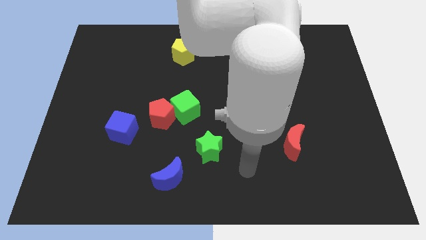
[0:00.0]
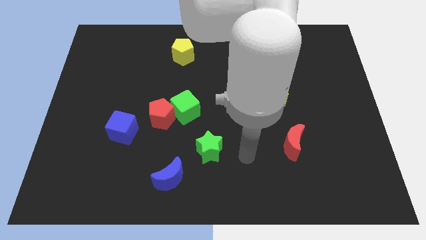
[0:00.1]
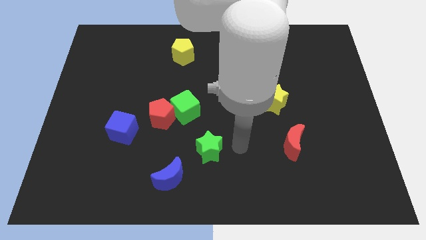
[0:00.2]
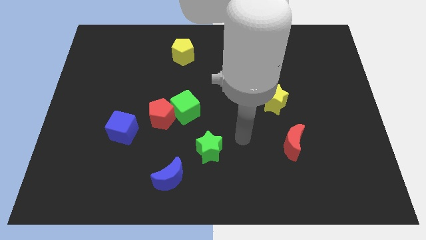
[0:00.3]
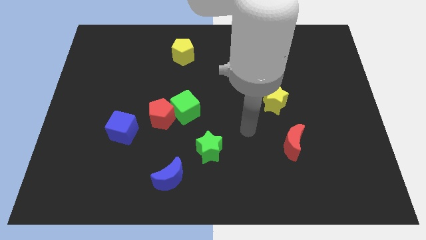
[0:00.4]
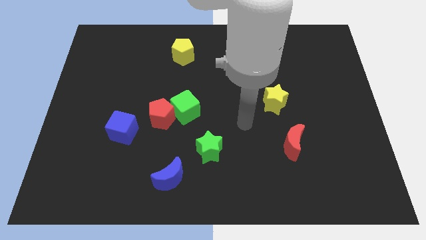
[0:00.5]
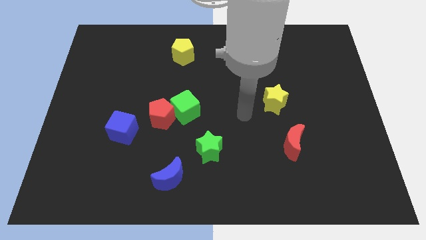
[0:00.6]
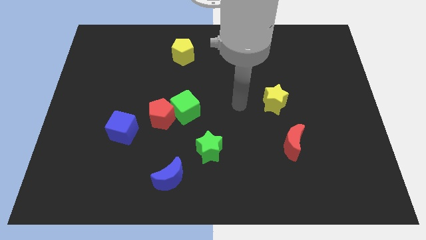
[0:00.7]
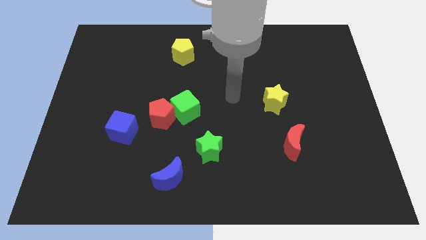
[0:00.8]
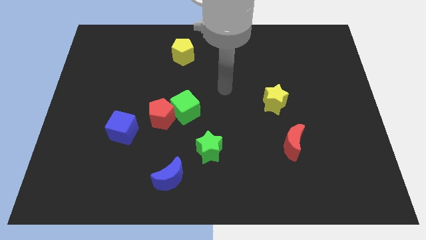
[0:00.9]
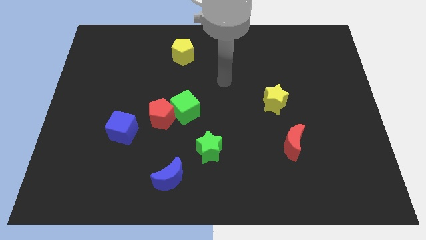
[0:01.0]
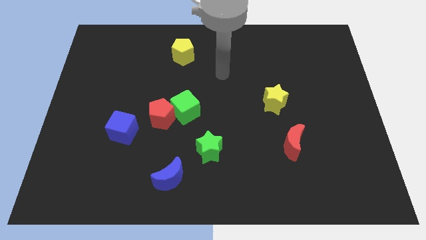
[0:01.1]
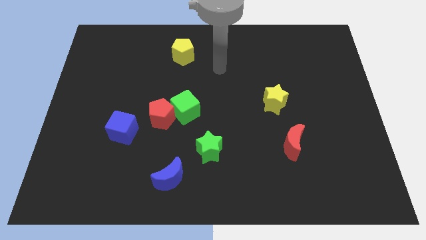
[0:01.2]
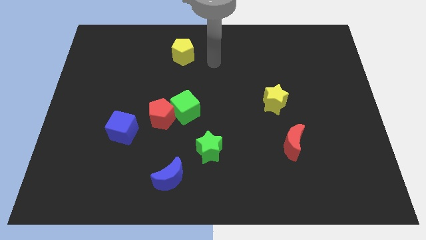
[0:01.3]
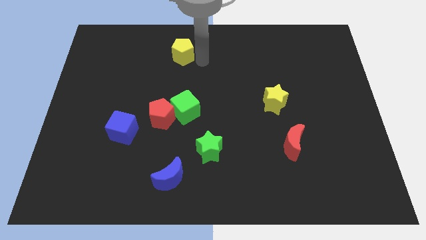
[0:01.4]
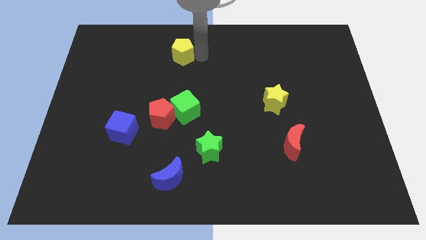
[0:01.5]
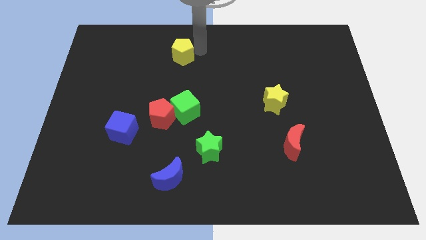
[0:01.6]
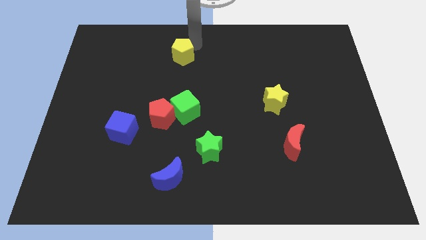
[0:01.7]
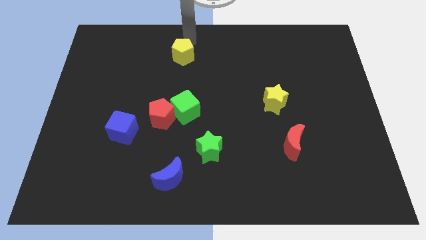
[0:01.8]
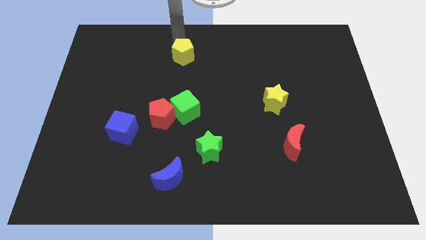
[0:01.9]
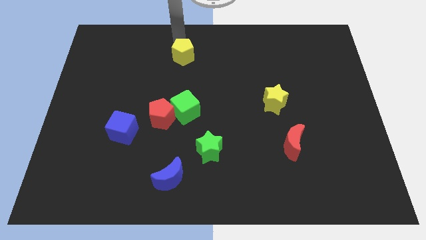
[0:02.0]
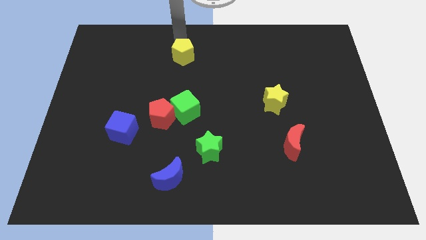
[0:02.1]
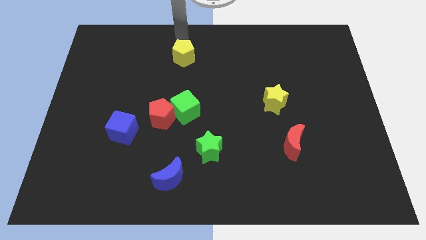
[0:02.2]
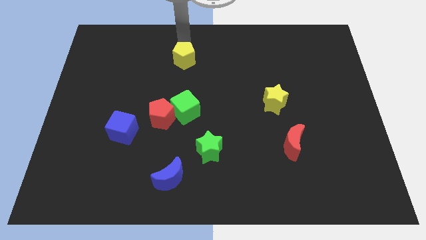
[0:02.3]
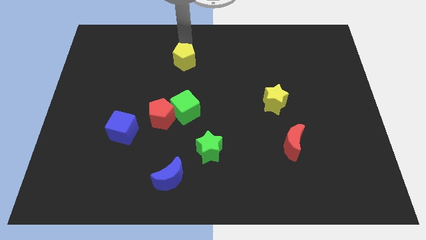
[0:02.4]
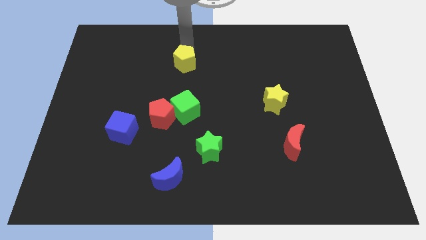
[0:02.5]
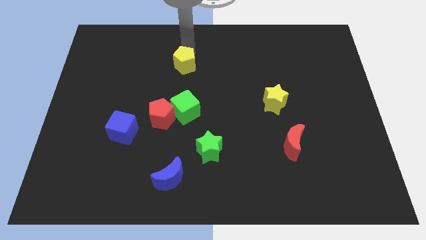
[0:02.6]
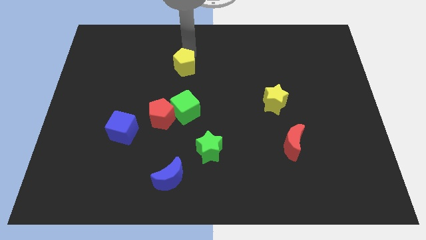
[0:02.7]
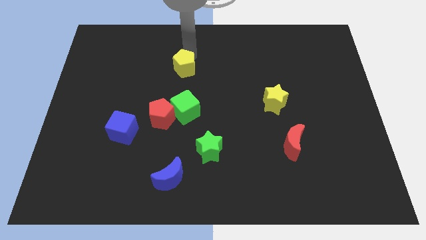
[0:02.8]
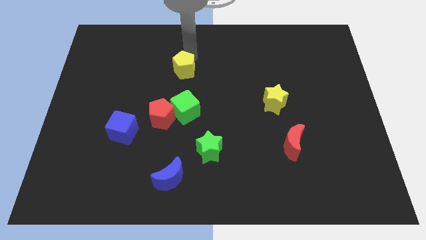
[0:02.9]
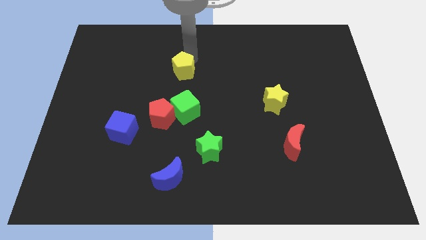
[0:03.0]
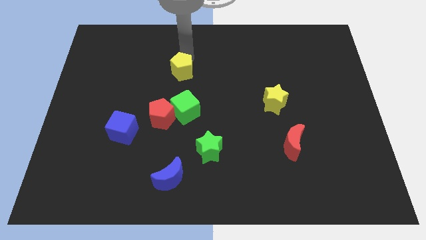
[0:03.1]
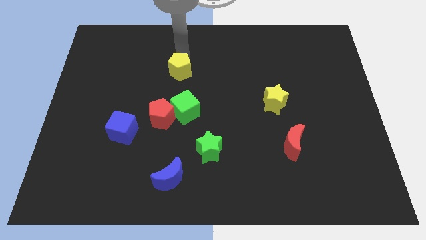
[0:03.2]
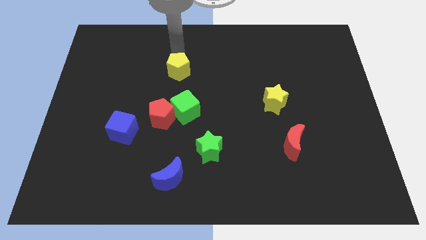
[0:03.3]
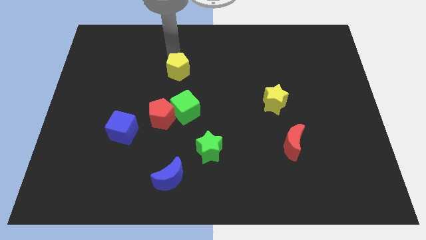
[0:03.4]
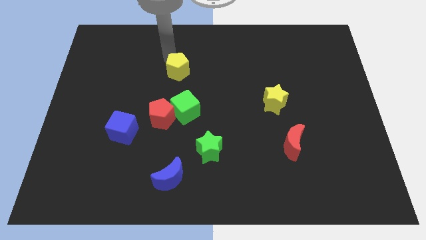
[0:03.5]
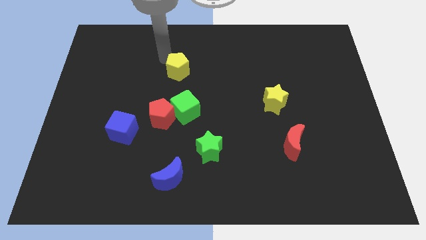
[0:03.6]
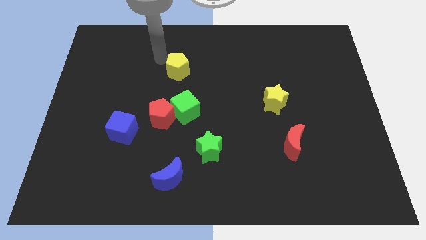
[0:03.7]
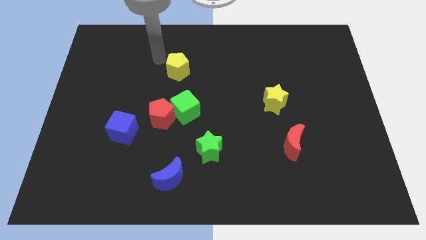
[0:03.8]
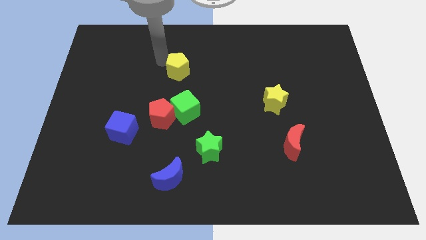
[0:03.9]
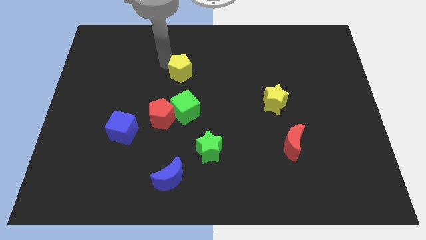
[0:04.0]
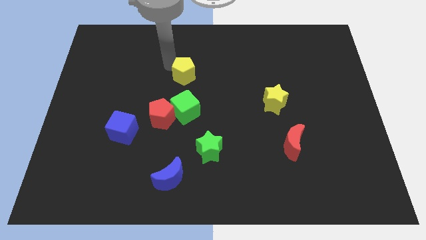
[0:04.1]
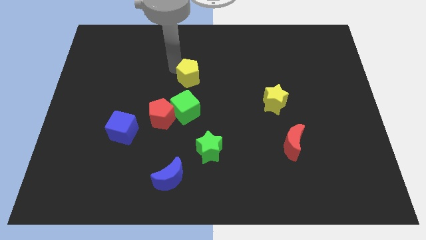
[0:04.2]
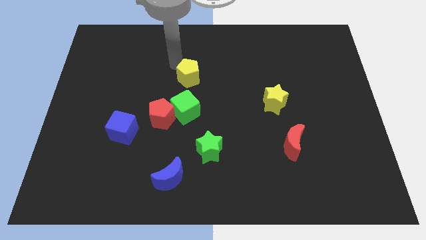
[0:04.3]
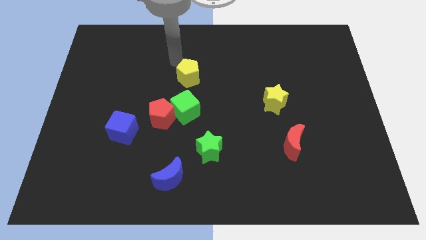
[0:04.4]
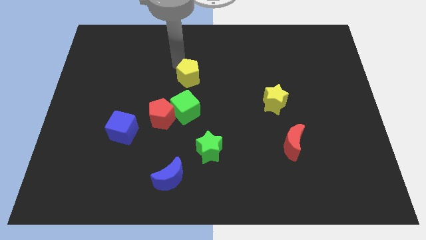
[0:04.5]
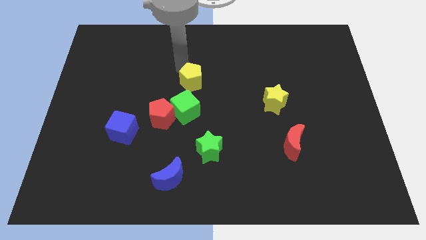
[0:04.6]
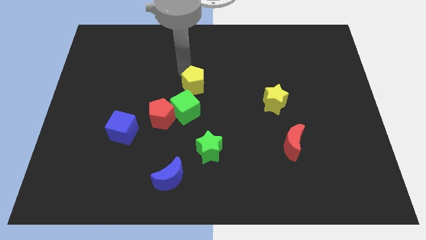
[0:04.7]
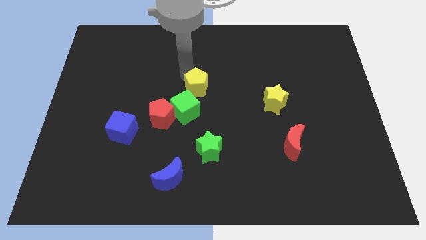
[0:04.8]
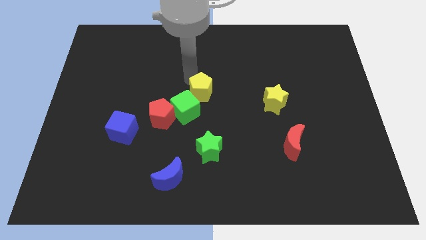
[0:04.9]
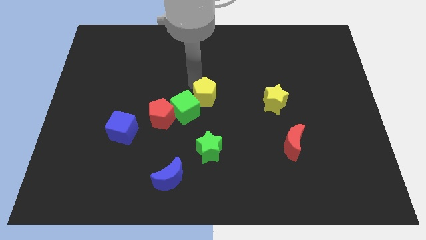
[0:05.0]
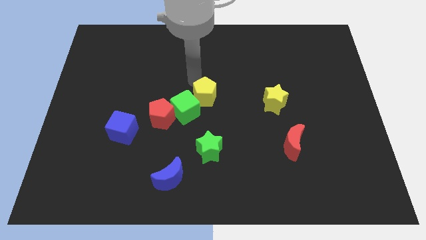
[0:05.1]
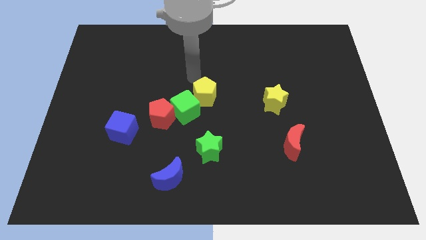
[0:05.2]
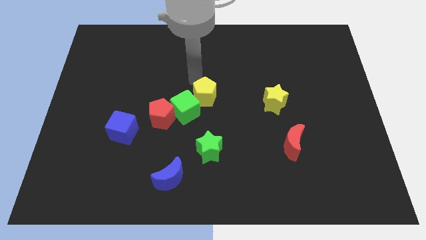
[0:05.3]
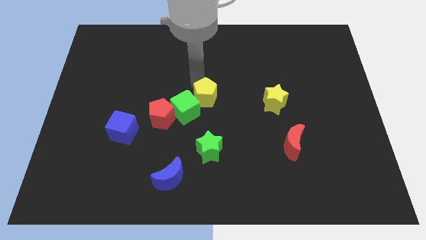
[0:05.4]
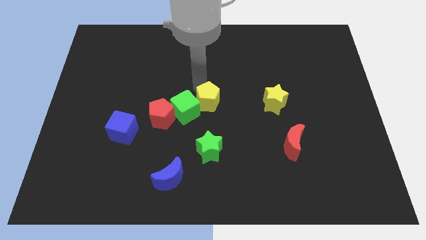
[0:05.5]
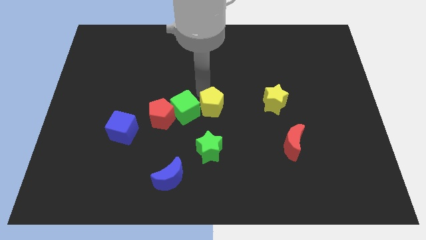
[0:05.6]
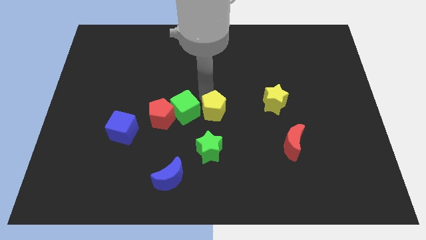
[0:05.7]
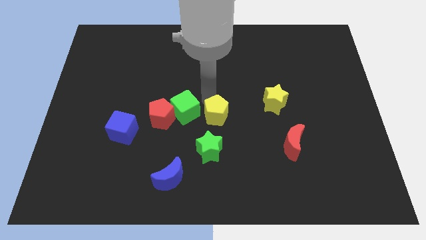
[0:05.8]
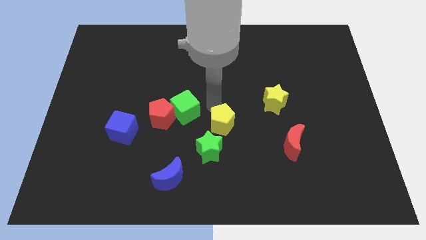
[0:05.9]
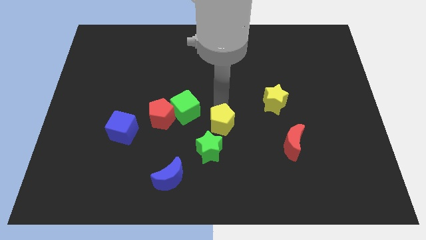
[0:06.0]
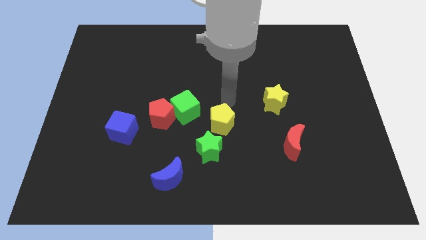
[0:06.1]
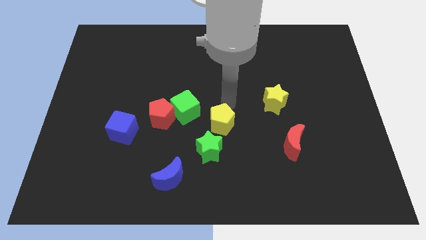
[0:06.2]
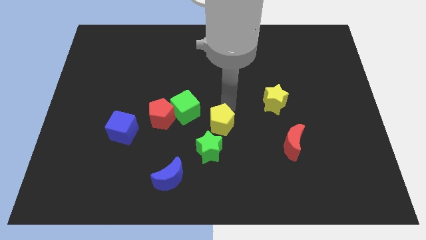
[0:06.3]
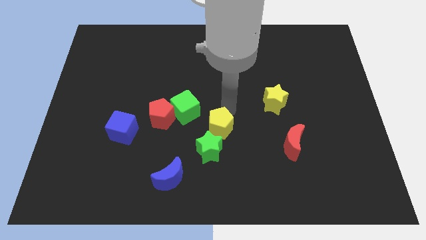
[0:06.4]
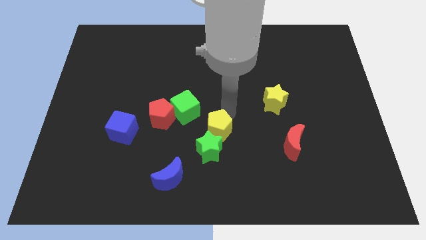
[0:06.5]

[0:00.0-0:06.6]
put the yellow pentagon next to the green star

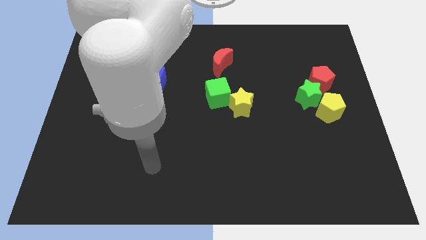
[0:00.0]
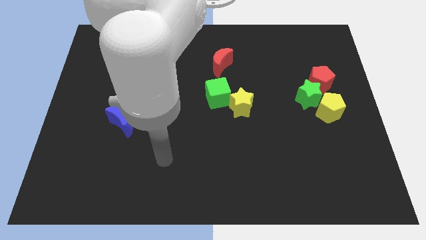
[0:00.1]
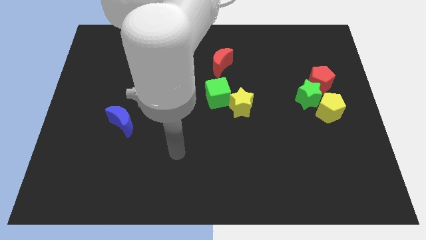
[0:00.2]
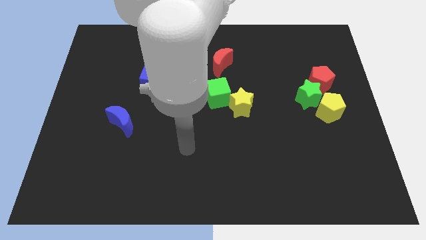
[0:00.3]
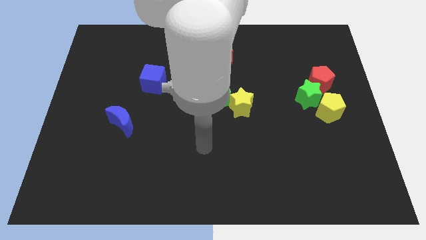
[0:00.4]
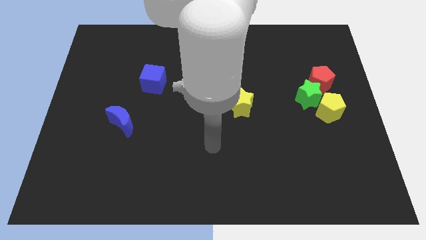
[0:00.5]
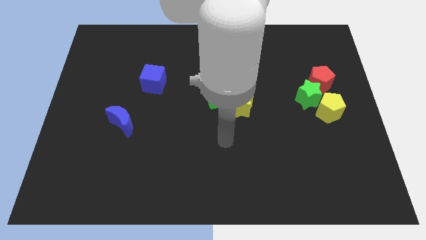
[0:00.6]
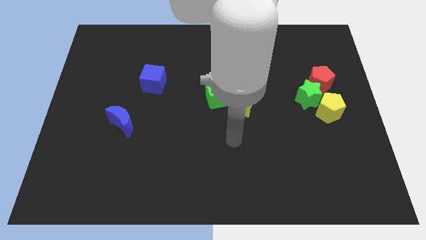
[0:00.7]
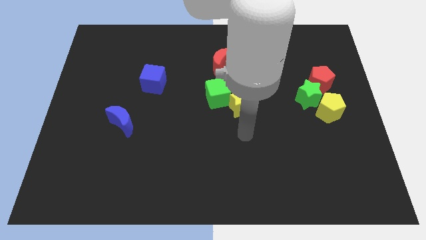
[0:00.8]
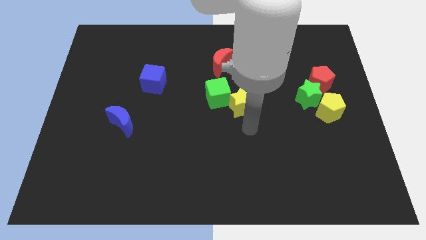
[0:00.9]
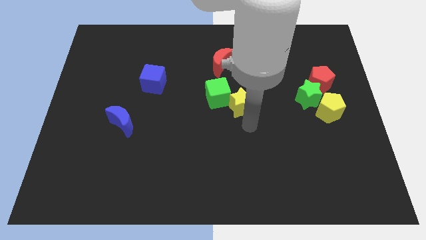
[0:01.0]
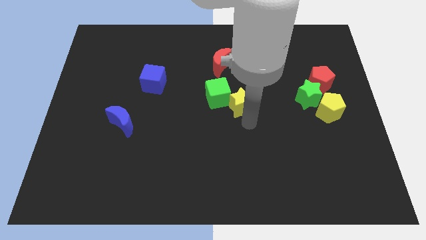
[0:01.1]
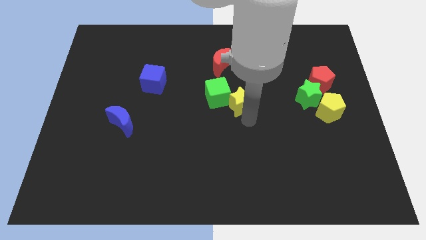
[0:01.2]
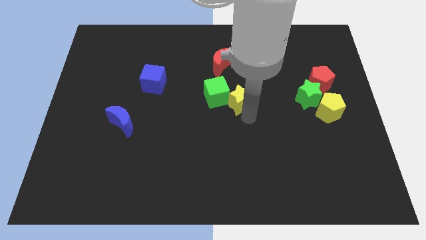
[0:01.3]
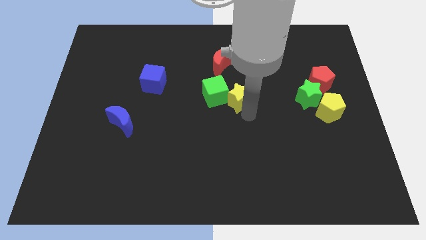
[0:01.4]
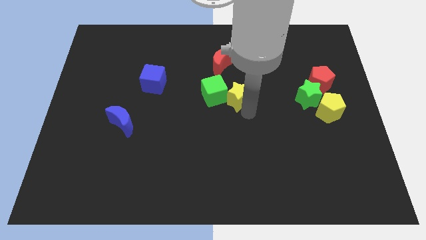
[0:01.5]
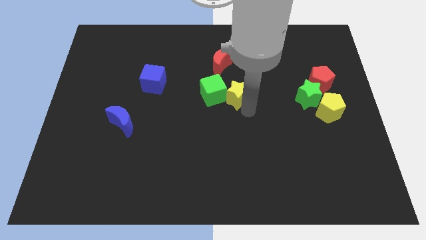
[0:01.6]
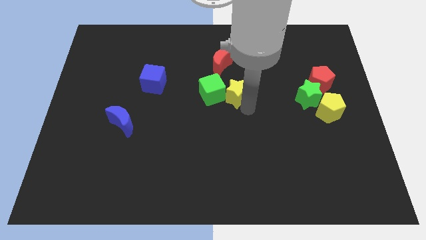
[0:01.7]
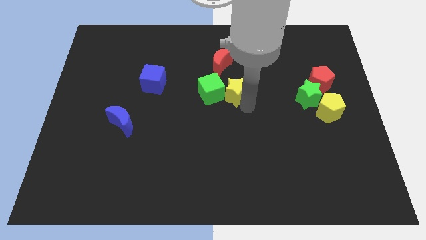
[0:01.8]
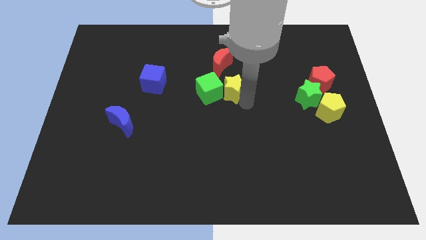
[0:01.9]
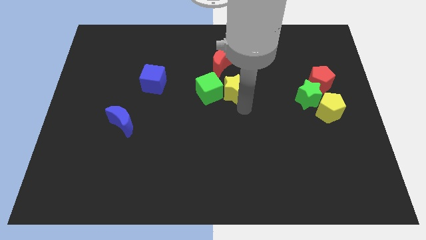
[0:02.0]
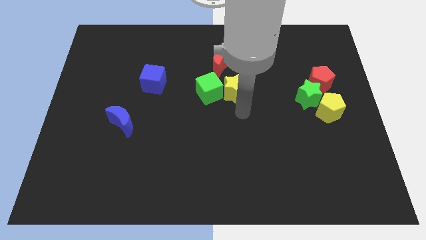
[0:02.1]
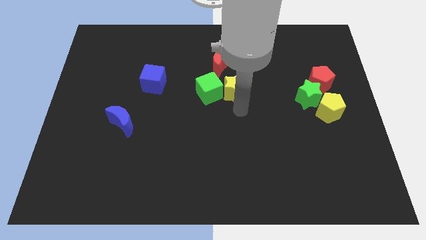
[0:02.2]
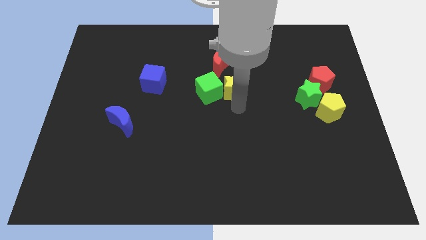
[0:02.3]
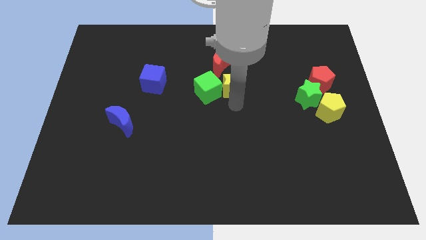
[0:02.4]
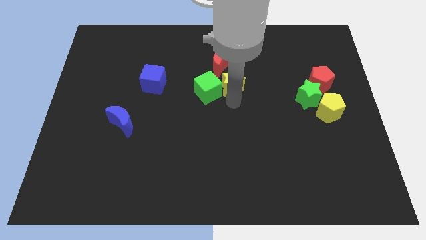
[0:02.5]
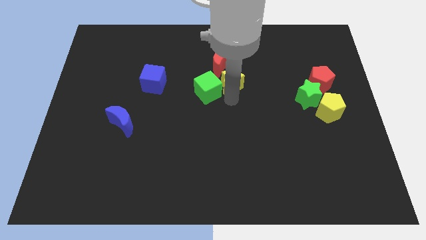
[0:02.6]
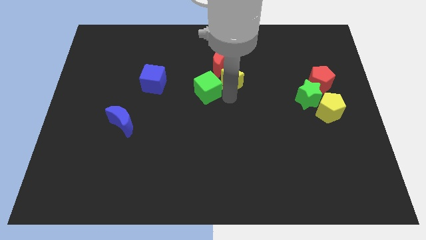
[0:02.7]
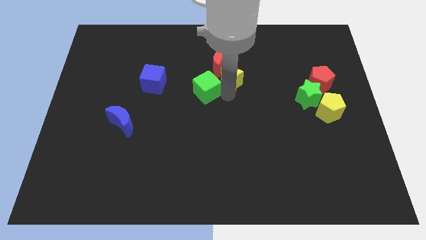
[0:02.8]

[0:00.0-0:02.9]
slide the yellow star close to the red moon
